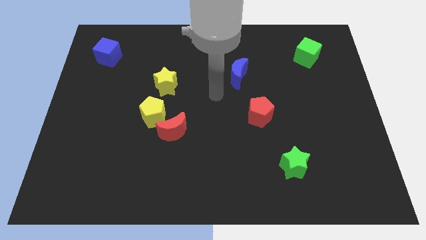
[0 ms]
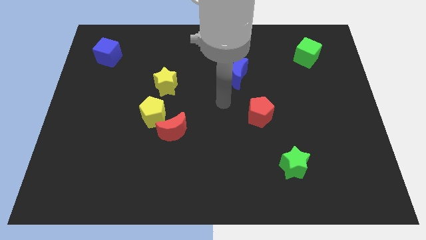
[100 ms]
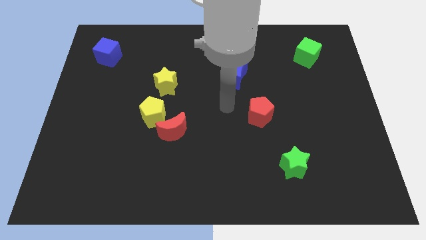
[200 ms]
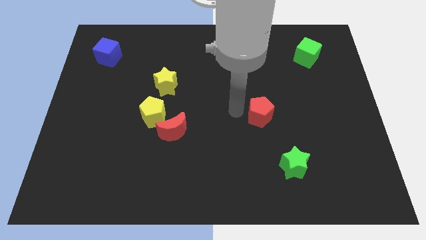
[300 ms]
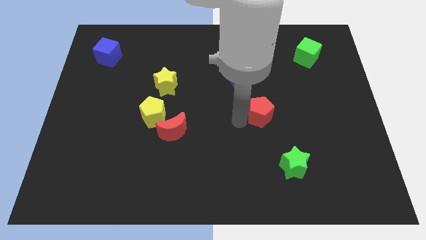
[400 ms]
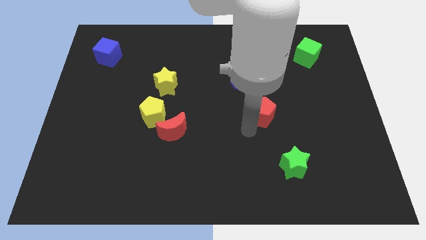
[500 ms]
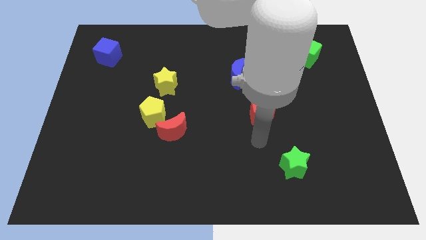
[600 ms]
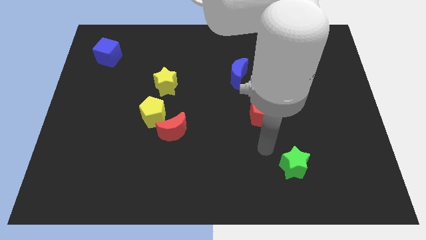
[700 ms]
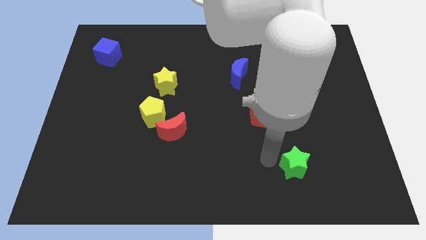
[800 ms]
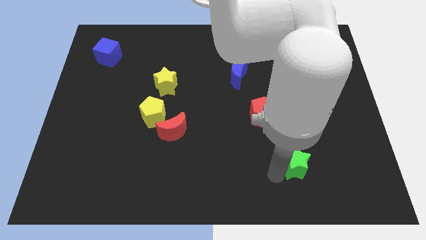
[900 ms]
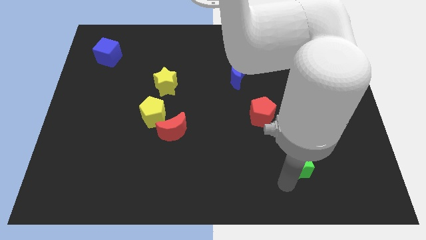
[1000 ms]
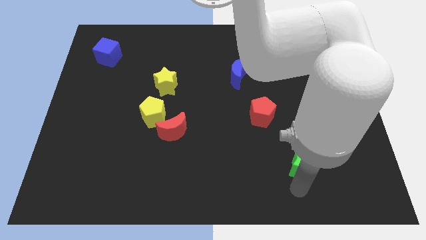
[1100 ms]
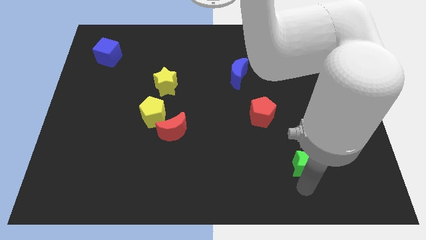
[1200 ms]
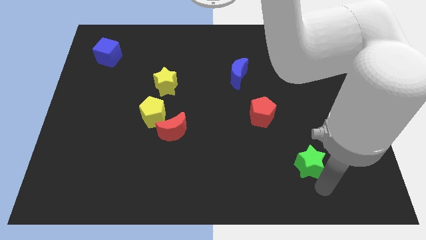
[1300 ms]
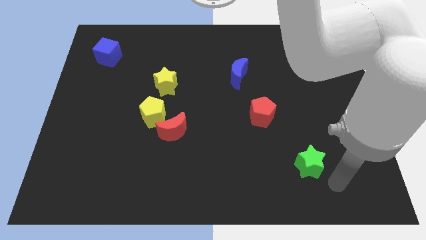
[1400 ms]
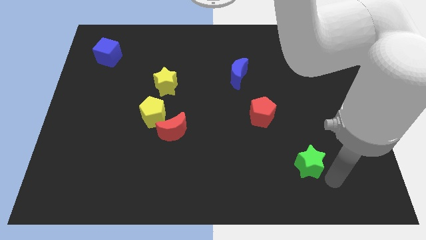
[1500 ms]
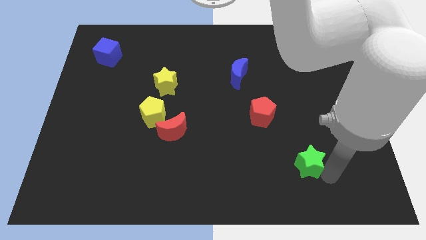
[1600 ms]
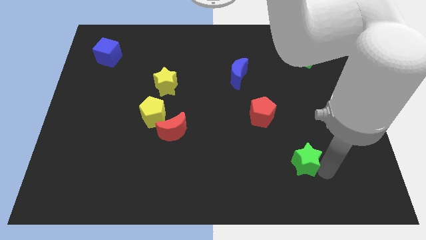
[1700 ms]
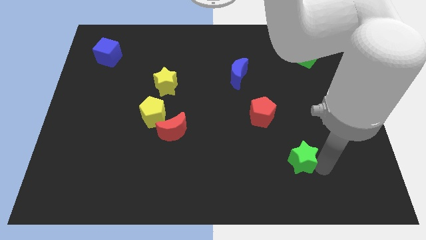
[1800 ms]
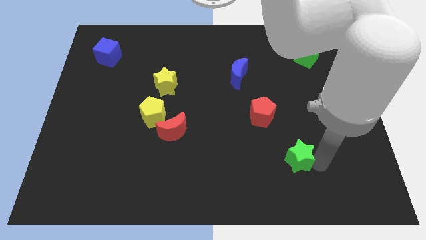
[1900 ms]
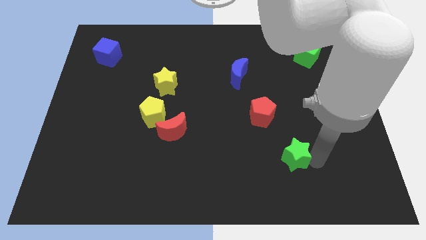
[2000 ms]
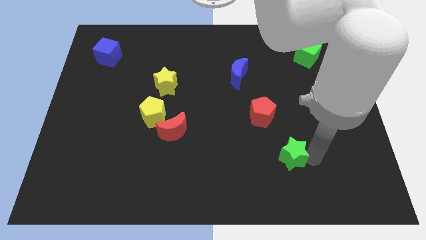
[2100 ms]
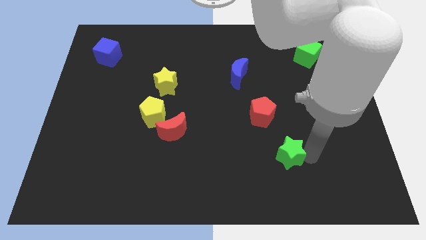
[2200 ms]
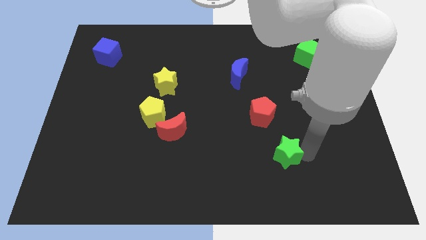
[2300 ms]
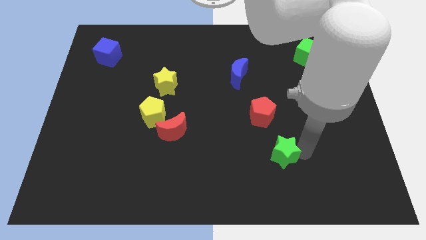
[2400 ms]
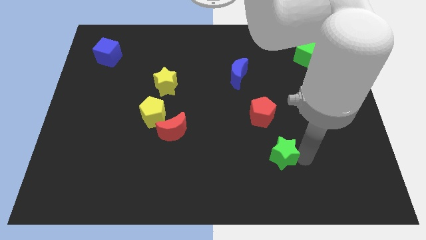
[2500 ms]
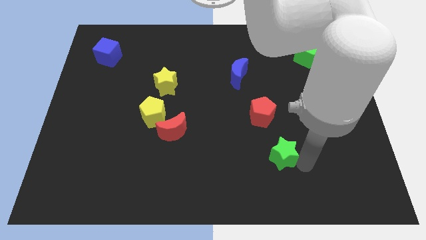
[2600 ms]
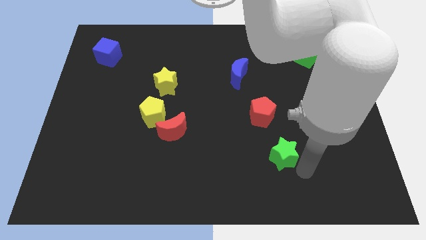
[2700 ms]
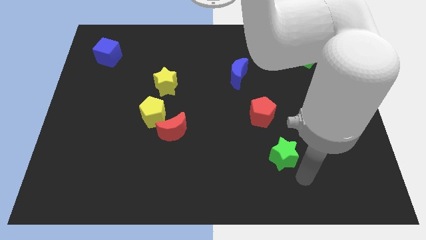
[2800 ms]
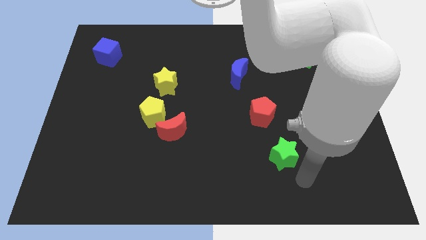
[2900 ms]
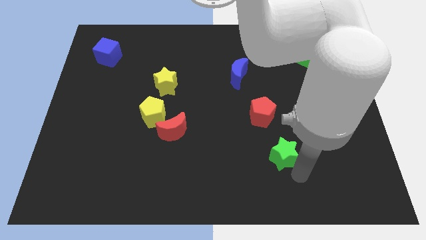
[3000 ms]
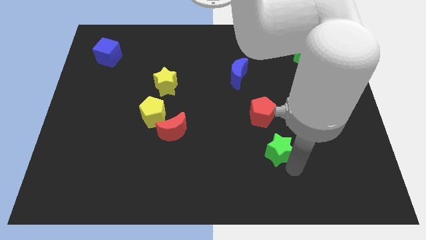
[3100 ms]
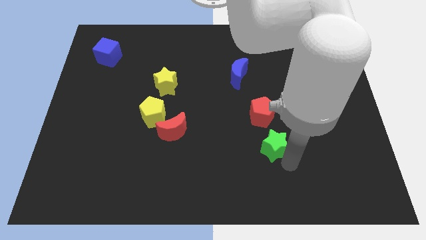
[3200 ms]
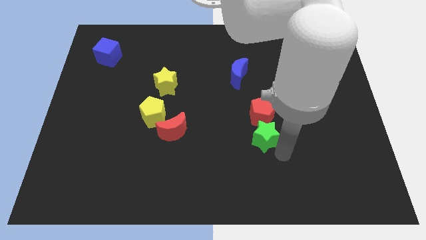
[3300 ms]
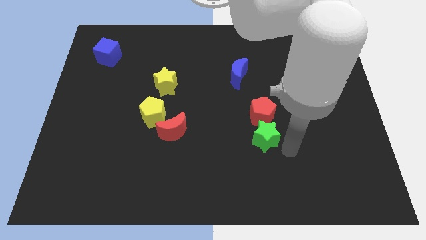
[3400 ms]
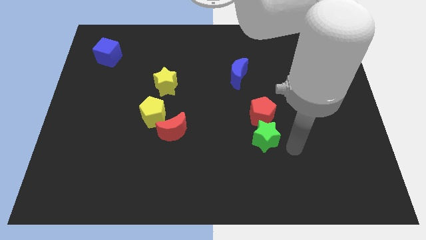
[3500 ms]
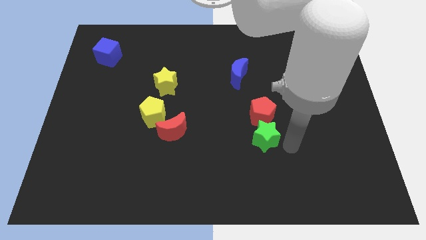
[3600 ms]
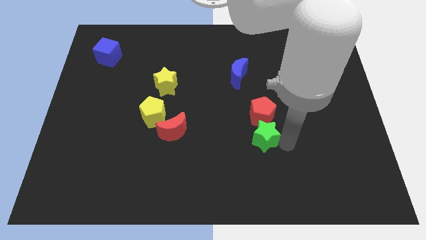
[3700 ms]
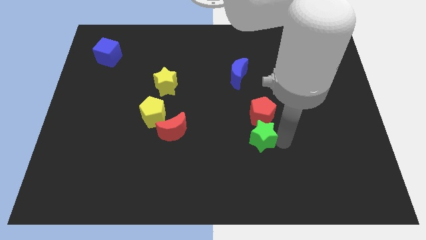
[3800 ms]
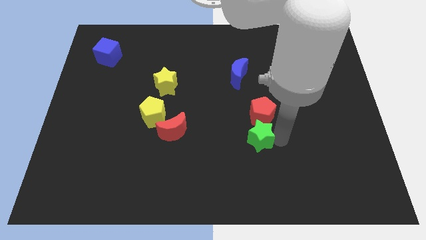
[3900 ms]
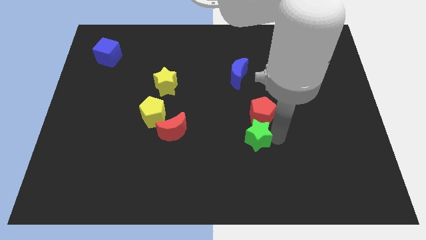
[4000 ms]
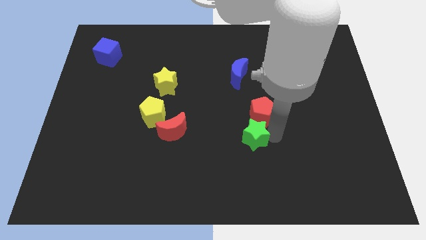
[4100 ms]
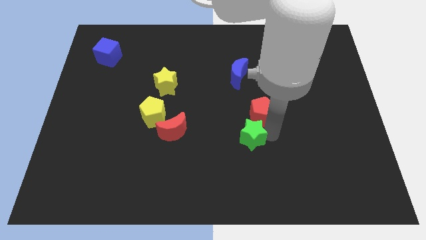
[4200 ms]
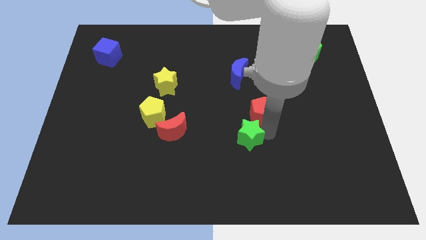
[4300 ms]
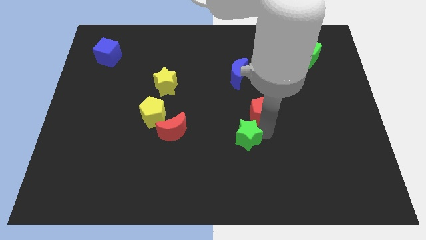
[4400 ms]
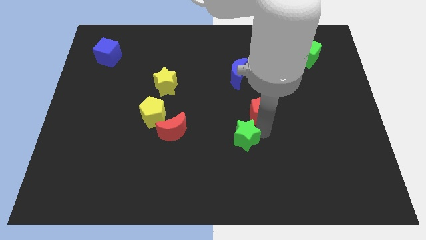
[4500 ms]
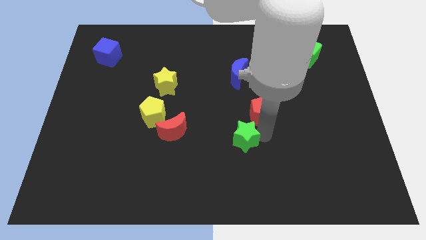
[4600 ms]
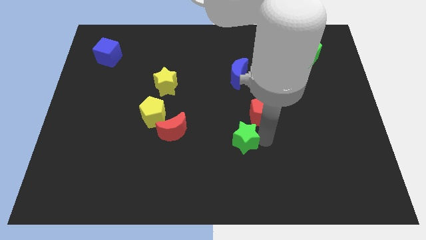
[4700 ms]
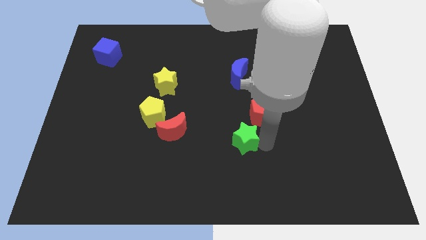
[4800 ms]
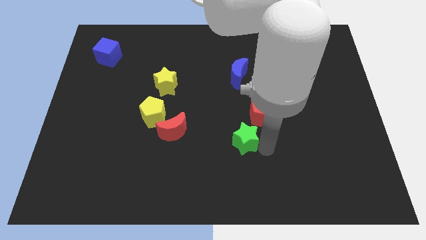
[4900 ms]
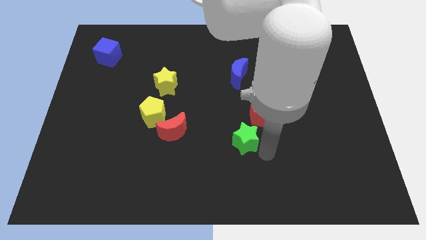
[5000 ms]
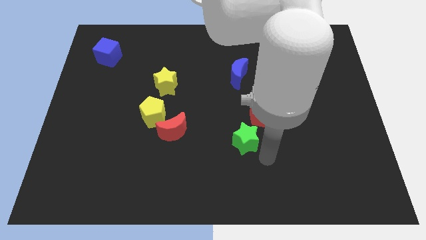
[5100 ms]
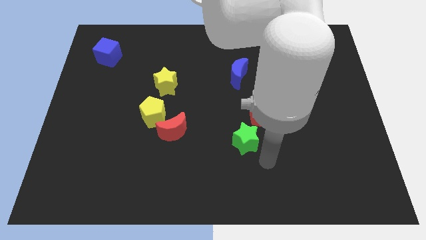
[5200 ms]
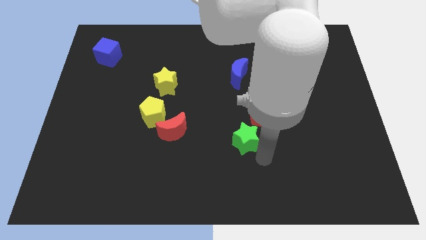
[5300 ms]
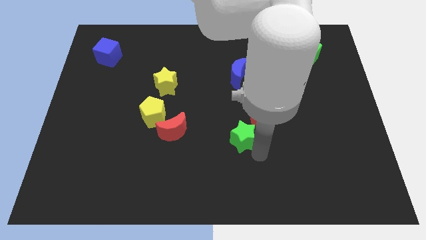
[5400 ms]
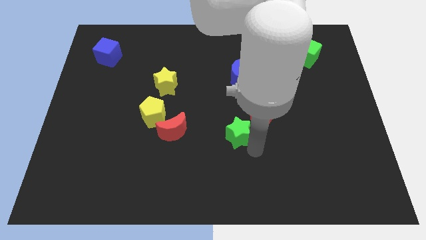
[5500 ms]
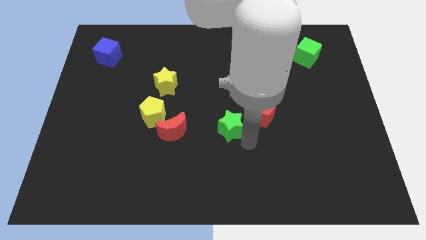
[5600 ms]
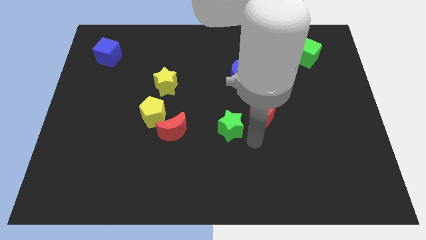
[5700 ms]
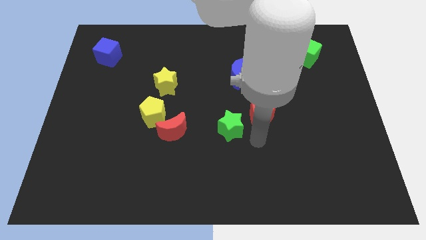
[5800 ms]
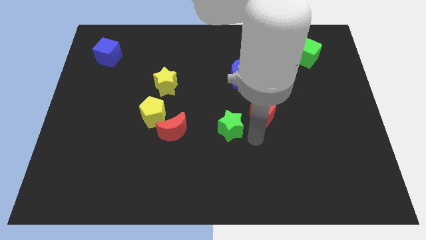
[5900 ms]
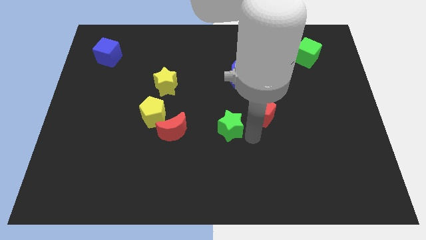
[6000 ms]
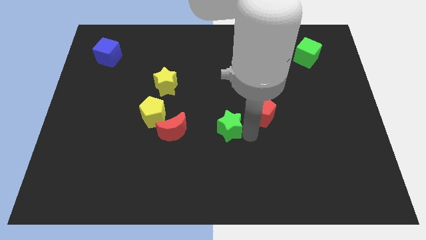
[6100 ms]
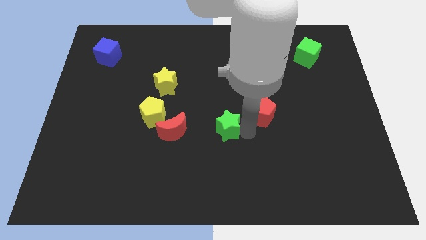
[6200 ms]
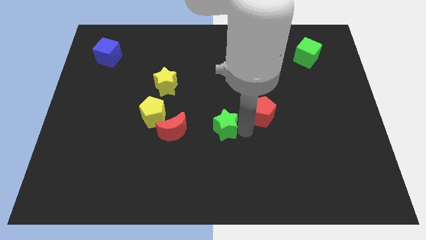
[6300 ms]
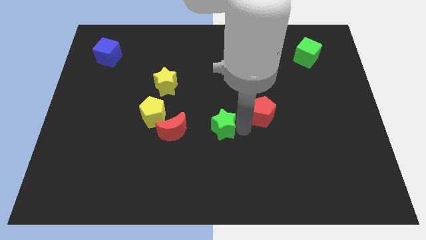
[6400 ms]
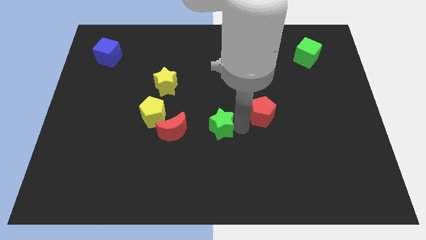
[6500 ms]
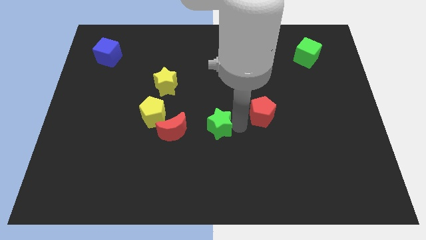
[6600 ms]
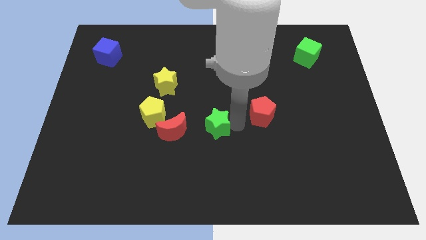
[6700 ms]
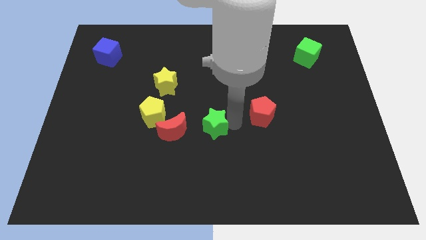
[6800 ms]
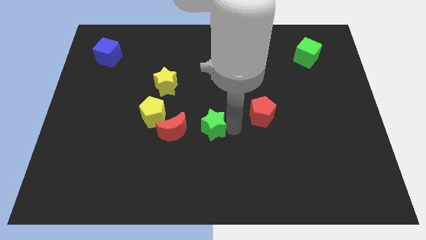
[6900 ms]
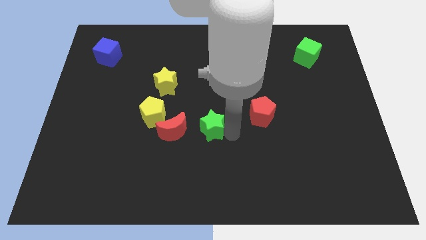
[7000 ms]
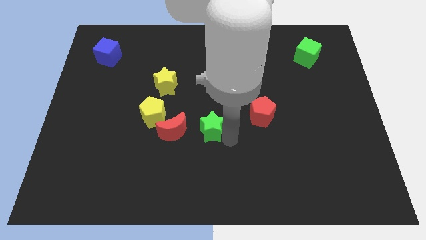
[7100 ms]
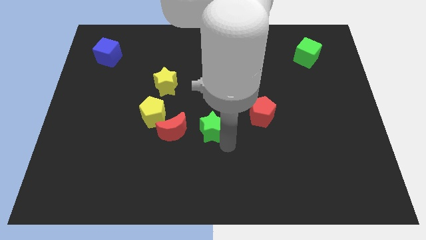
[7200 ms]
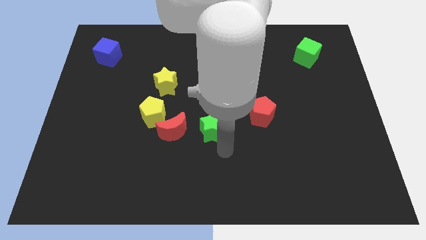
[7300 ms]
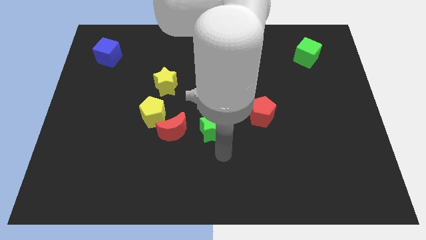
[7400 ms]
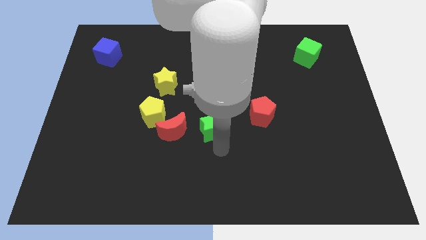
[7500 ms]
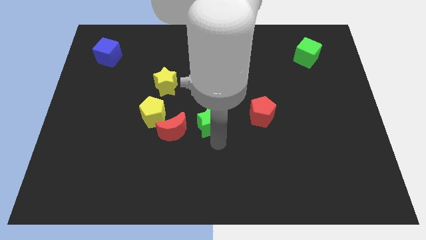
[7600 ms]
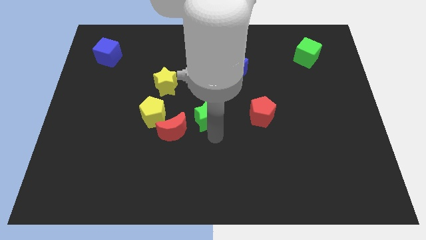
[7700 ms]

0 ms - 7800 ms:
push the green star up and to the left

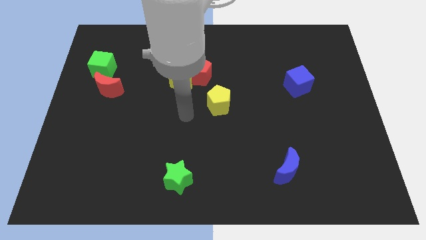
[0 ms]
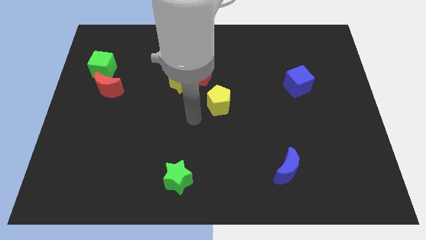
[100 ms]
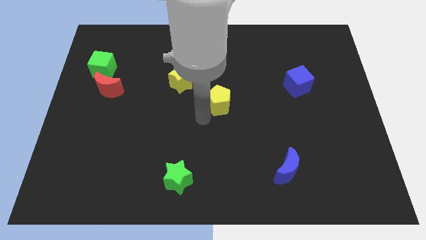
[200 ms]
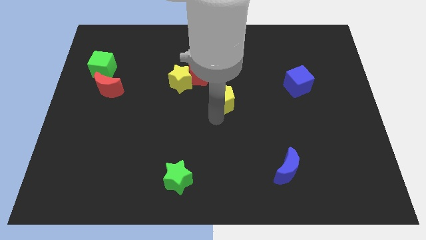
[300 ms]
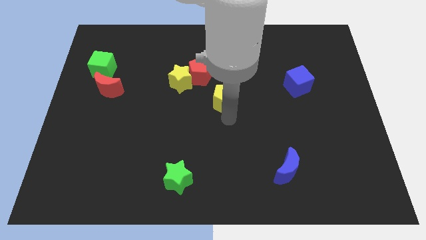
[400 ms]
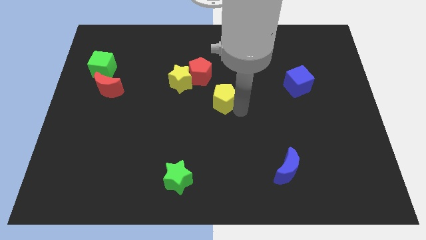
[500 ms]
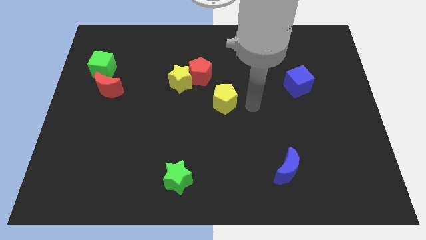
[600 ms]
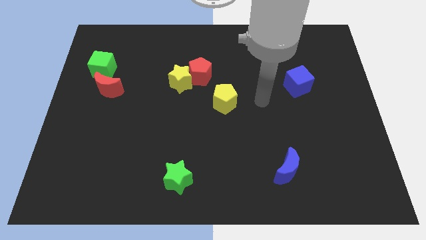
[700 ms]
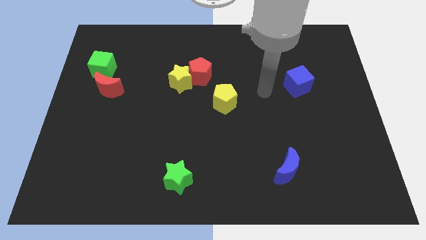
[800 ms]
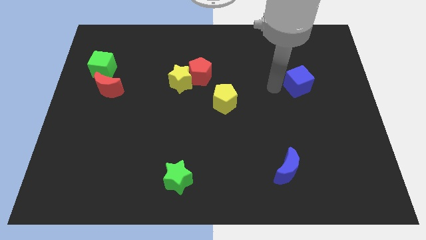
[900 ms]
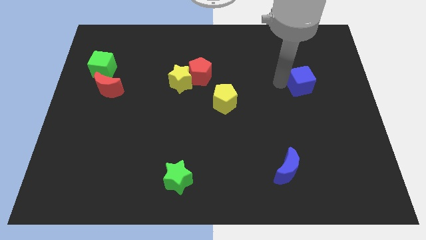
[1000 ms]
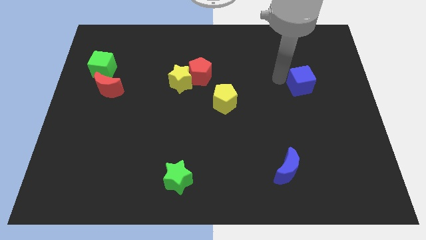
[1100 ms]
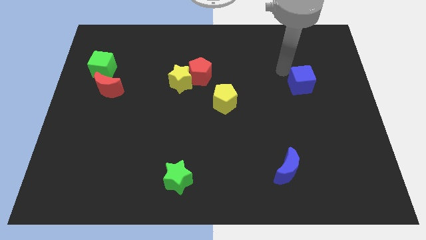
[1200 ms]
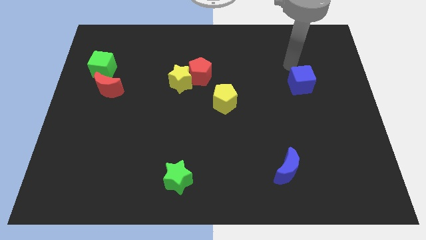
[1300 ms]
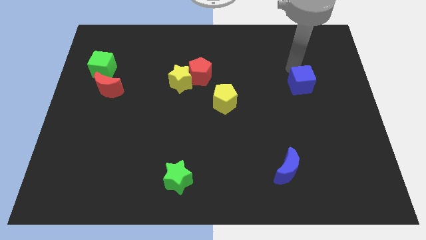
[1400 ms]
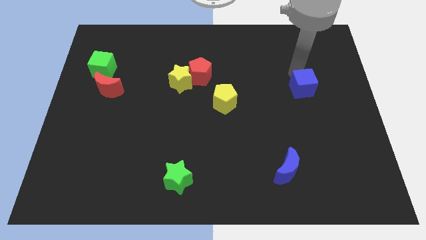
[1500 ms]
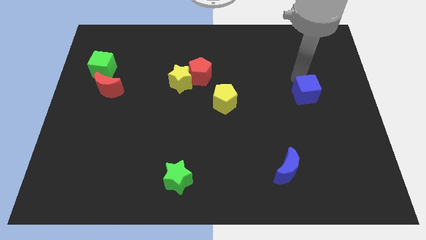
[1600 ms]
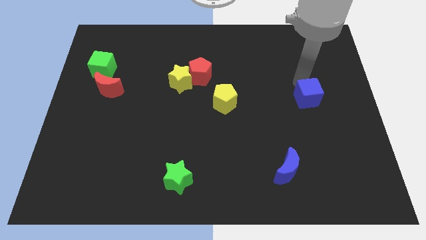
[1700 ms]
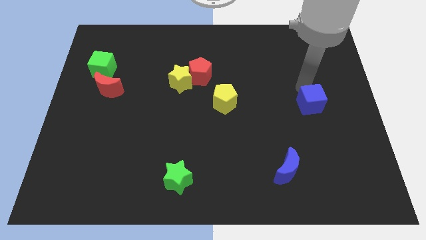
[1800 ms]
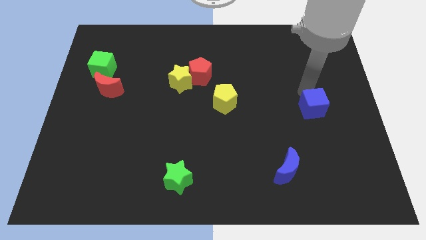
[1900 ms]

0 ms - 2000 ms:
slightly slide the blue cube down
